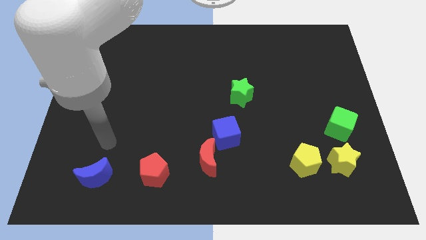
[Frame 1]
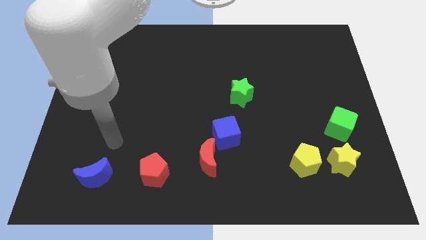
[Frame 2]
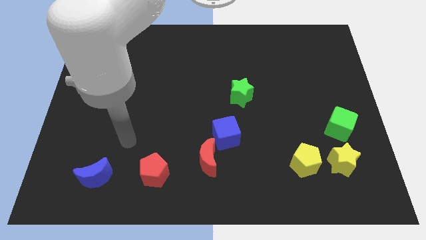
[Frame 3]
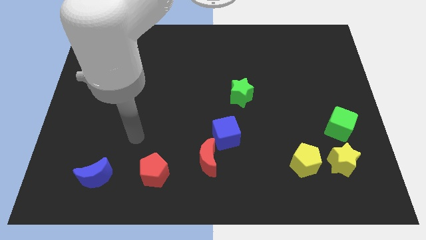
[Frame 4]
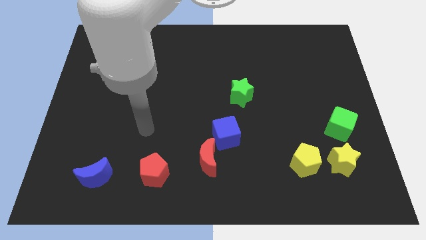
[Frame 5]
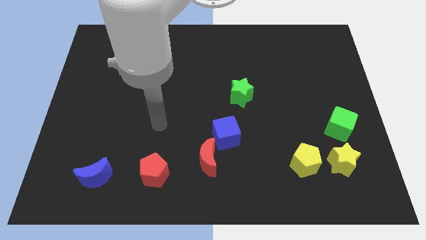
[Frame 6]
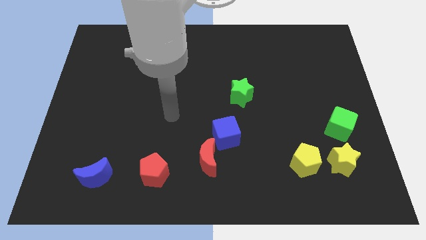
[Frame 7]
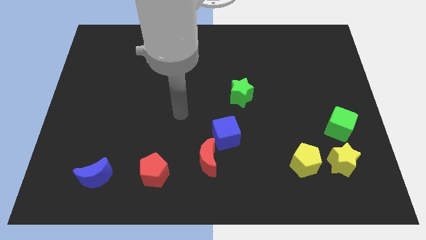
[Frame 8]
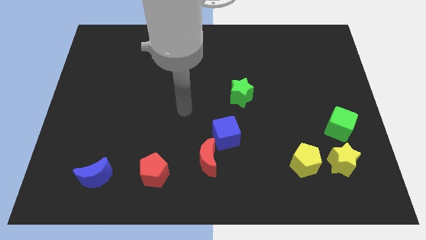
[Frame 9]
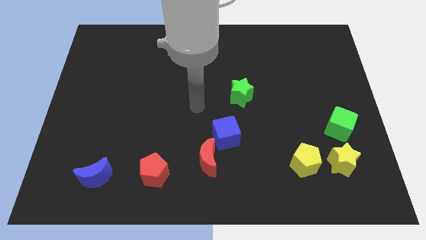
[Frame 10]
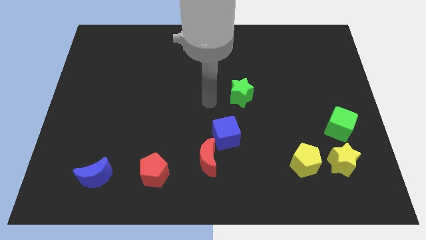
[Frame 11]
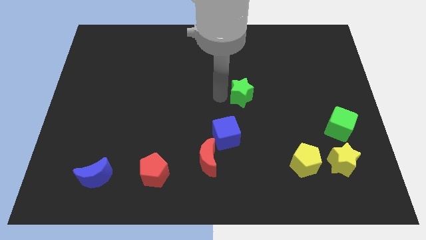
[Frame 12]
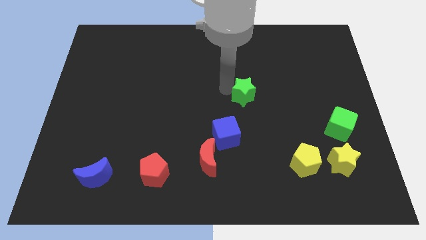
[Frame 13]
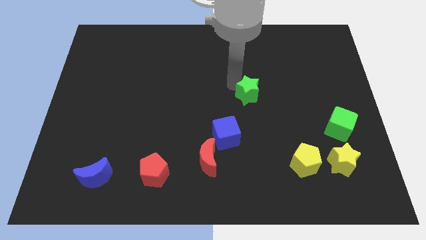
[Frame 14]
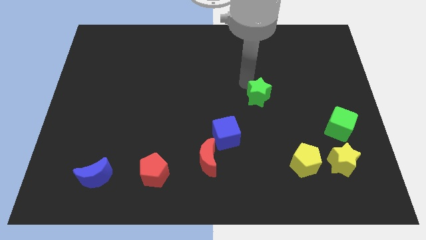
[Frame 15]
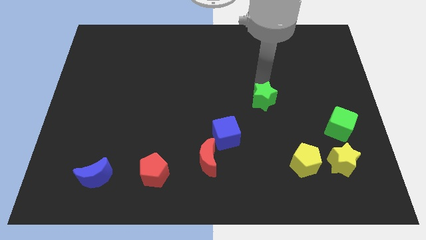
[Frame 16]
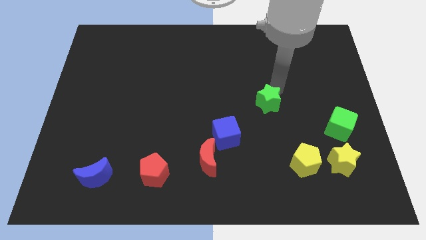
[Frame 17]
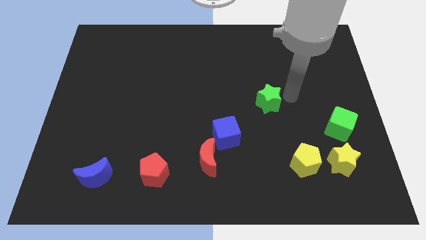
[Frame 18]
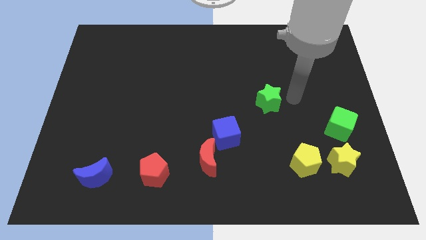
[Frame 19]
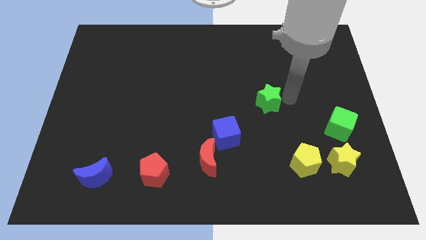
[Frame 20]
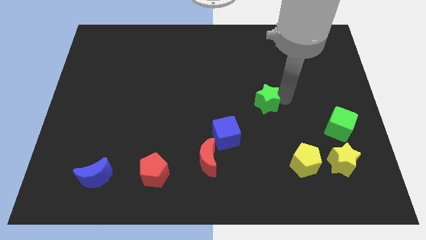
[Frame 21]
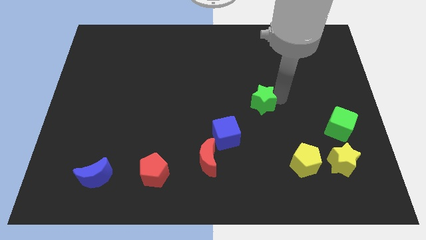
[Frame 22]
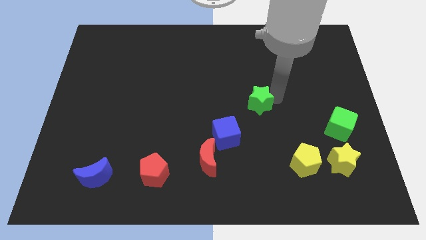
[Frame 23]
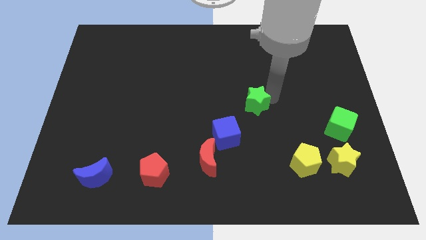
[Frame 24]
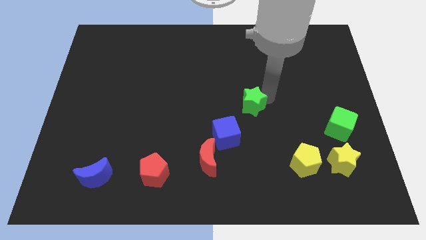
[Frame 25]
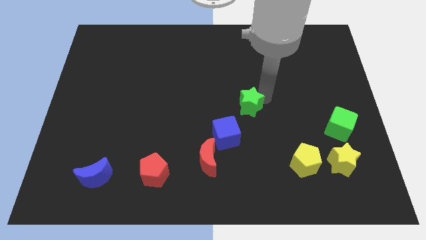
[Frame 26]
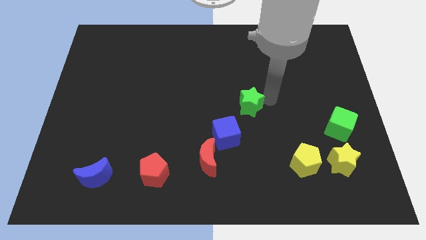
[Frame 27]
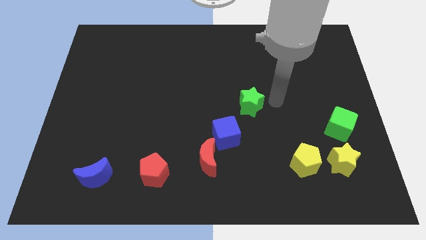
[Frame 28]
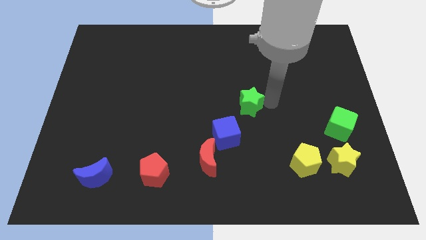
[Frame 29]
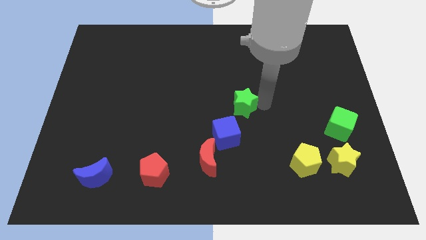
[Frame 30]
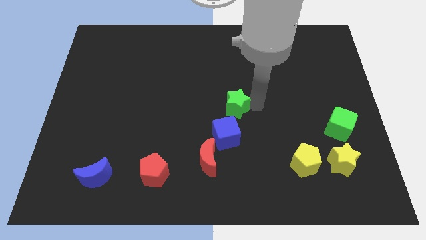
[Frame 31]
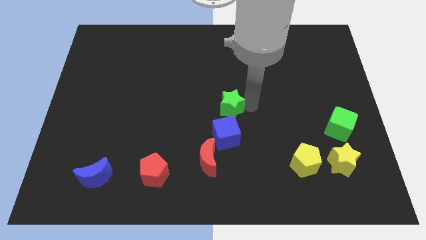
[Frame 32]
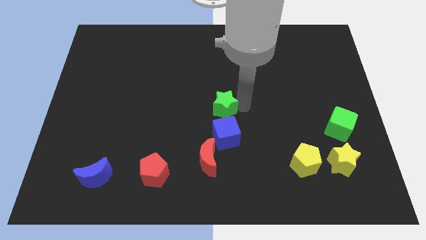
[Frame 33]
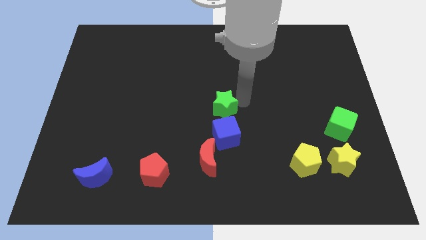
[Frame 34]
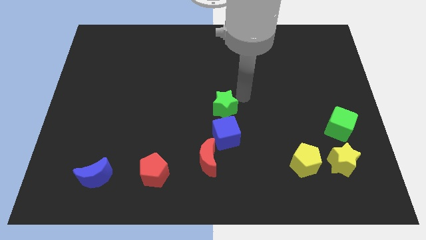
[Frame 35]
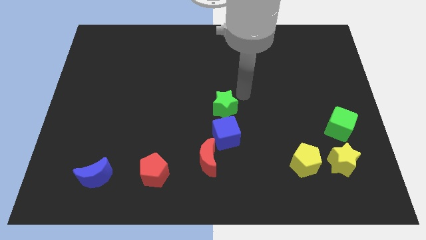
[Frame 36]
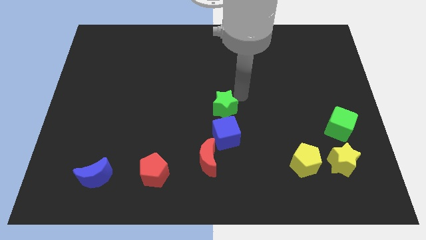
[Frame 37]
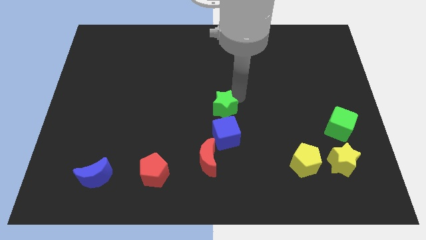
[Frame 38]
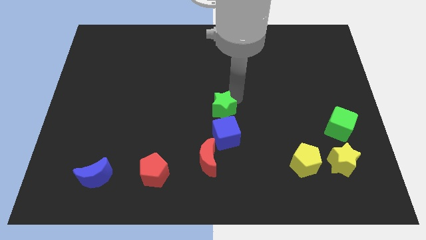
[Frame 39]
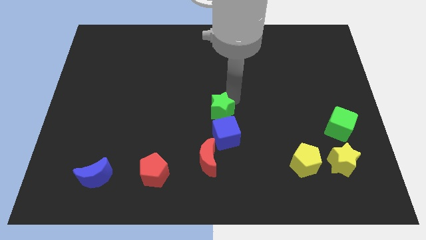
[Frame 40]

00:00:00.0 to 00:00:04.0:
slide the green star down and then left a bit

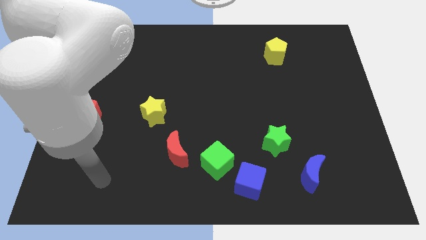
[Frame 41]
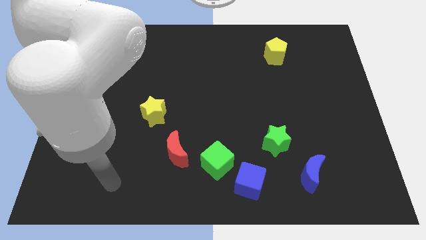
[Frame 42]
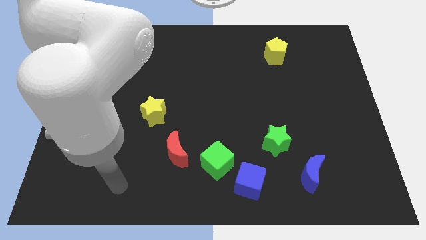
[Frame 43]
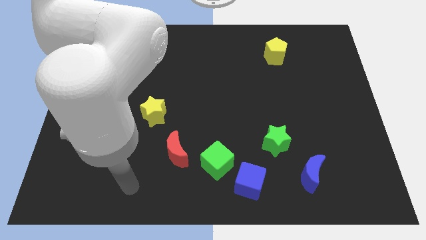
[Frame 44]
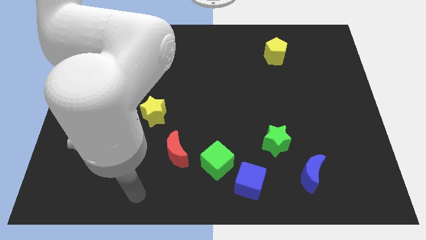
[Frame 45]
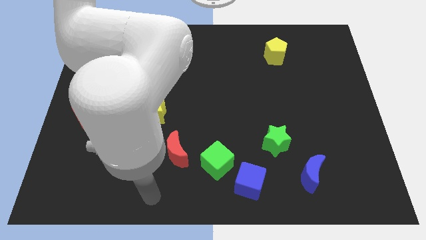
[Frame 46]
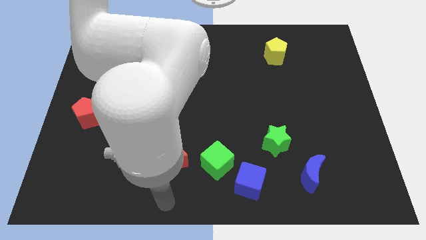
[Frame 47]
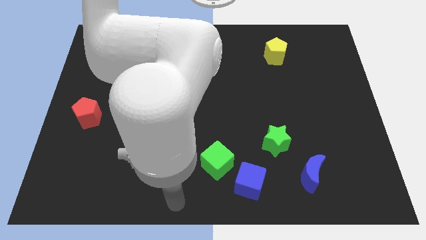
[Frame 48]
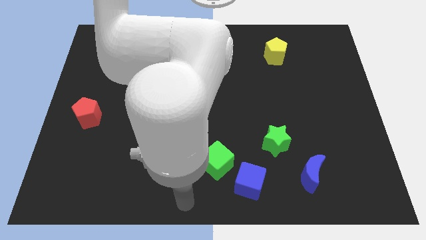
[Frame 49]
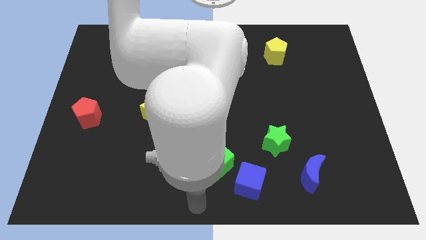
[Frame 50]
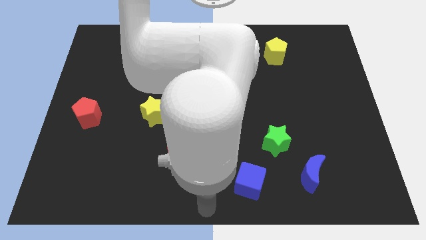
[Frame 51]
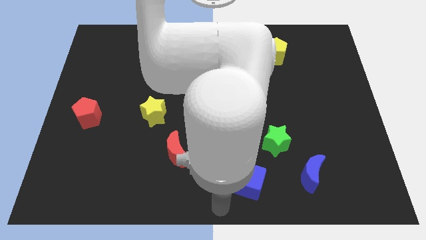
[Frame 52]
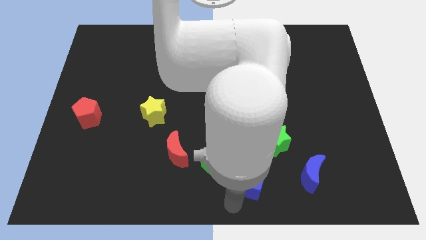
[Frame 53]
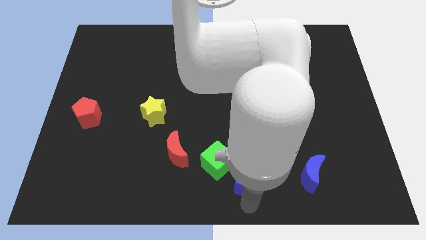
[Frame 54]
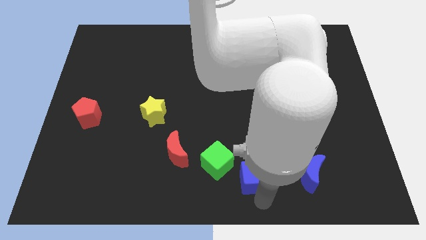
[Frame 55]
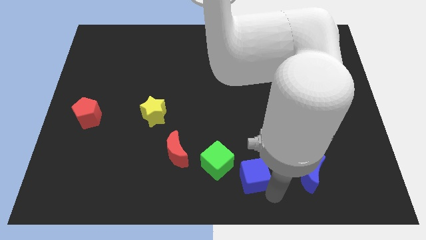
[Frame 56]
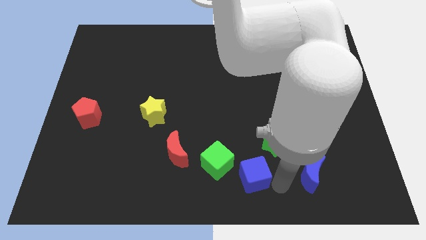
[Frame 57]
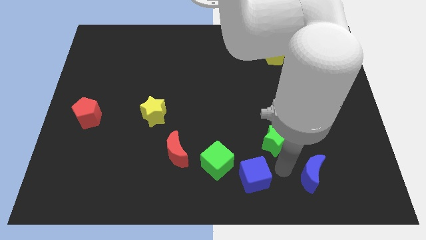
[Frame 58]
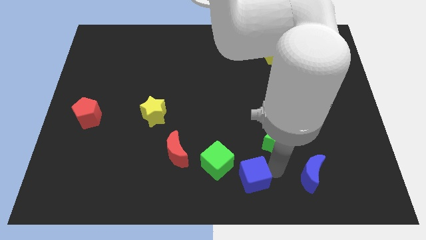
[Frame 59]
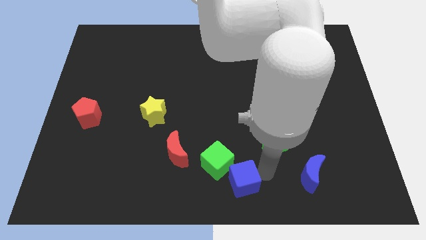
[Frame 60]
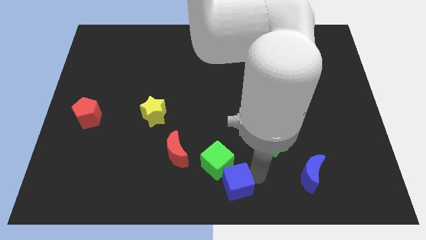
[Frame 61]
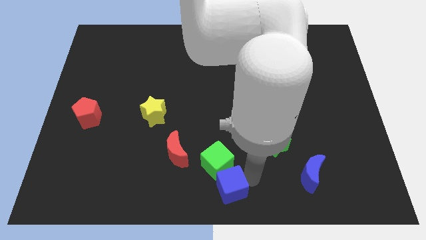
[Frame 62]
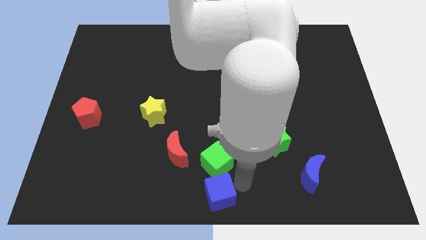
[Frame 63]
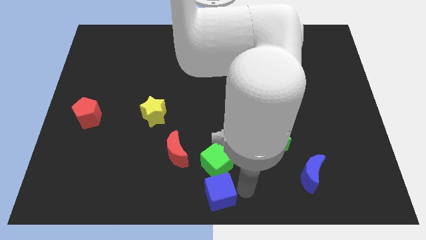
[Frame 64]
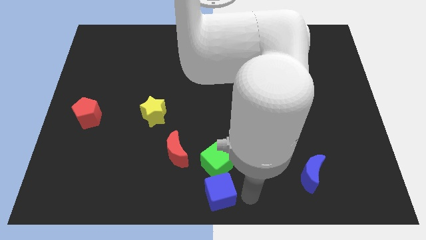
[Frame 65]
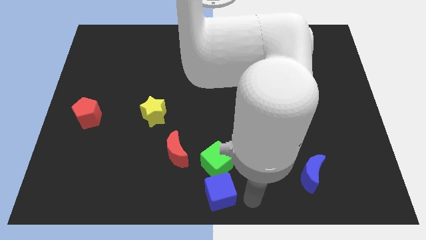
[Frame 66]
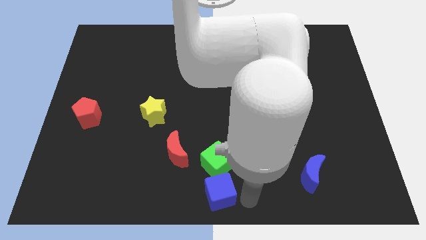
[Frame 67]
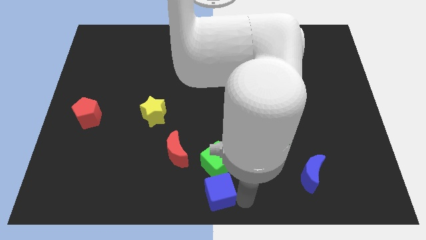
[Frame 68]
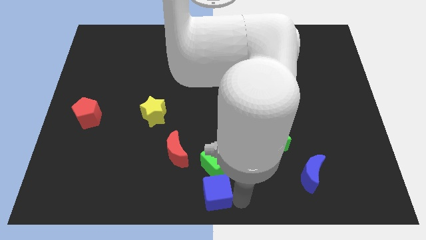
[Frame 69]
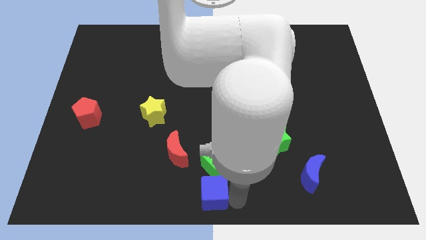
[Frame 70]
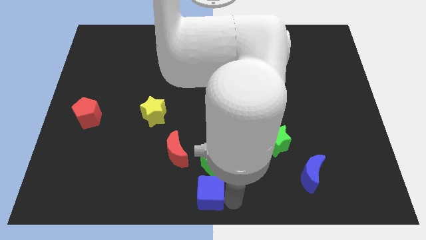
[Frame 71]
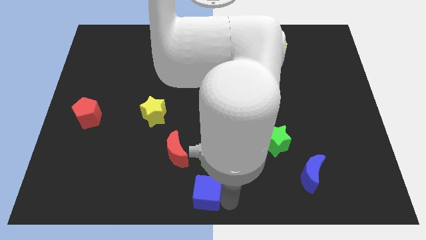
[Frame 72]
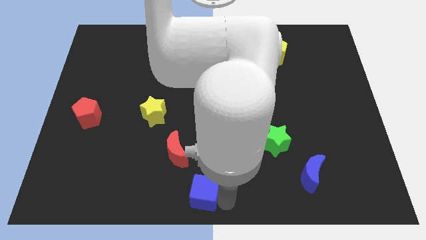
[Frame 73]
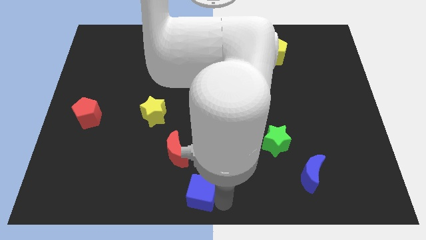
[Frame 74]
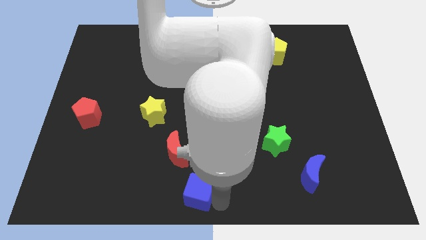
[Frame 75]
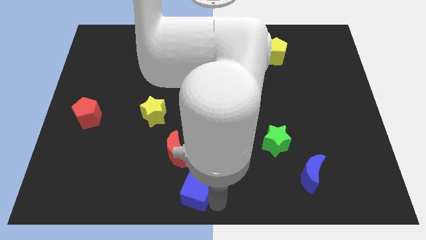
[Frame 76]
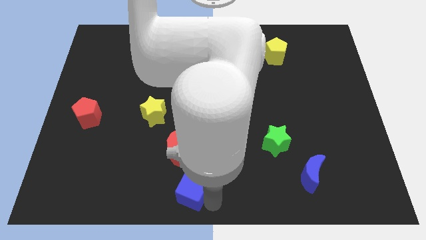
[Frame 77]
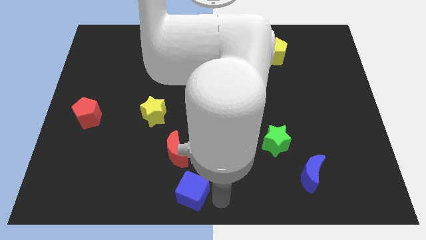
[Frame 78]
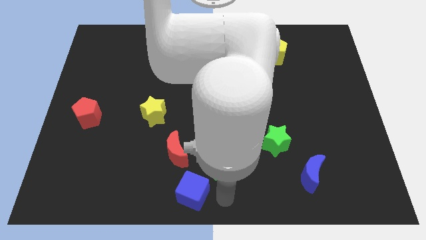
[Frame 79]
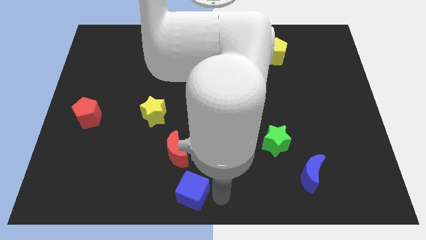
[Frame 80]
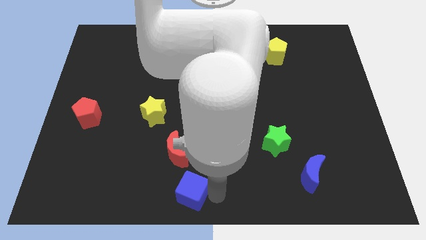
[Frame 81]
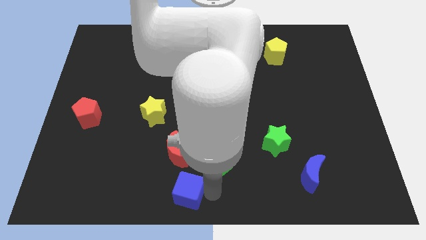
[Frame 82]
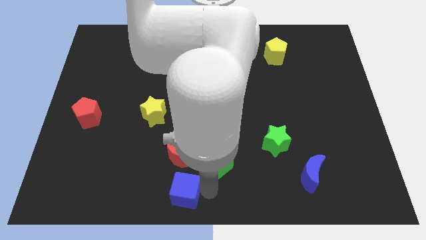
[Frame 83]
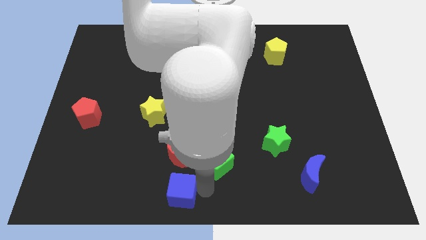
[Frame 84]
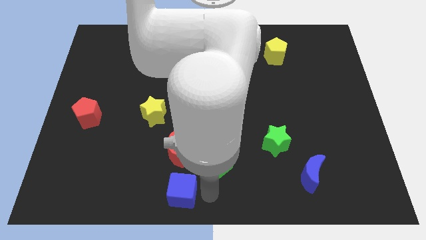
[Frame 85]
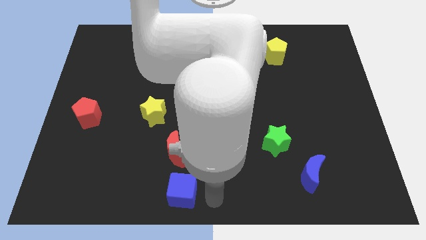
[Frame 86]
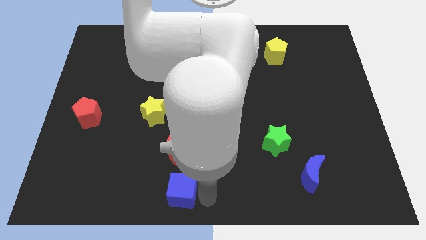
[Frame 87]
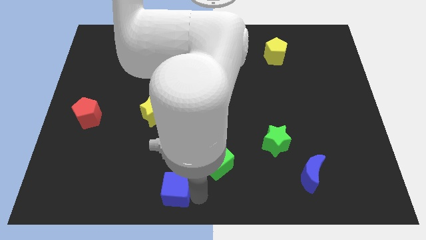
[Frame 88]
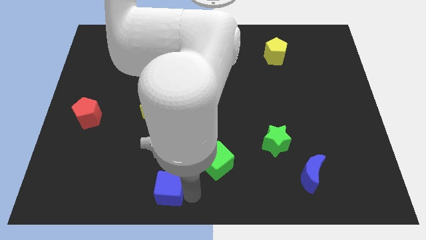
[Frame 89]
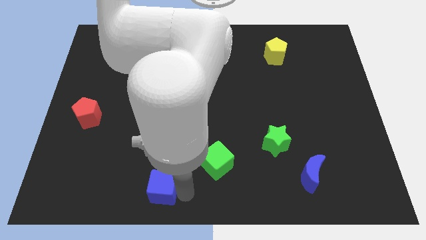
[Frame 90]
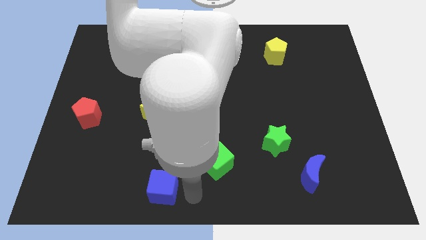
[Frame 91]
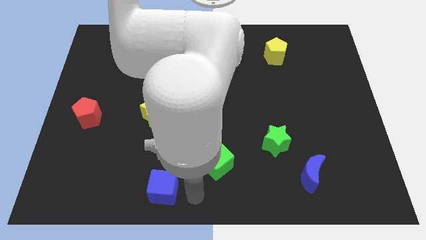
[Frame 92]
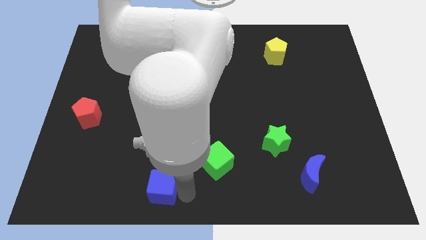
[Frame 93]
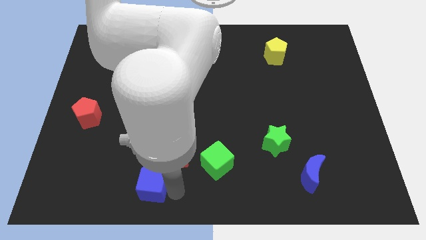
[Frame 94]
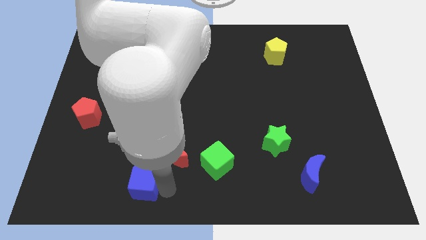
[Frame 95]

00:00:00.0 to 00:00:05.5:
slide the blue cube to the left
